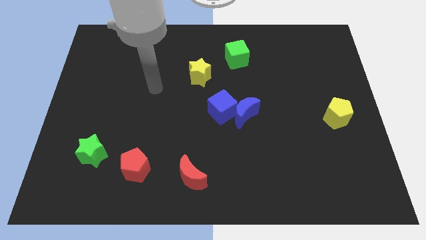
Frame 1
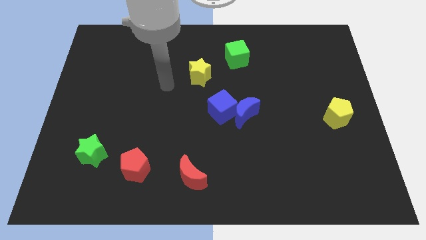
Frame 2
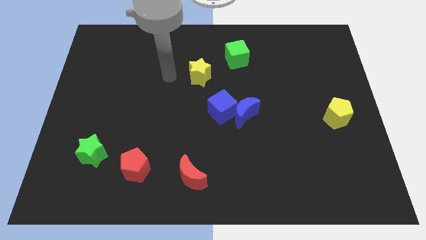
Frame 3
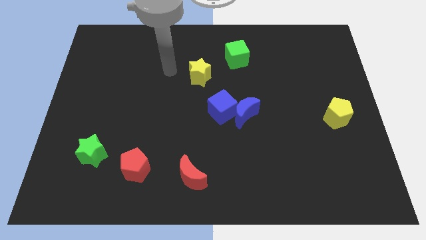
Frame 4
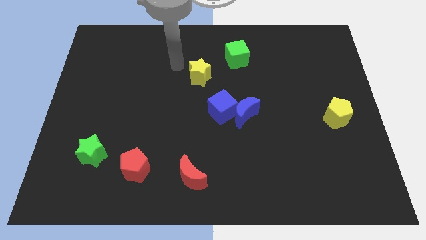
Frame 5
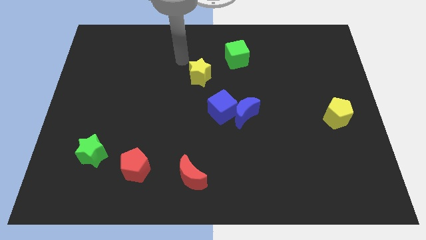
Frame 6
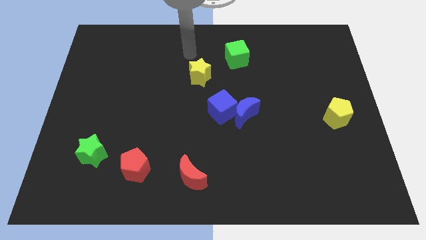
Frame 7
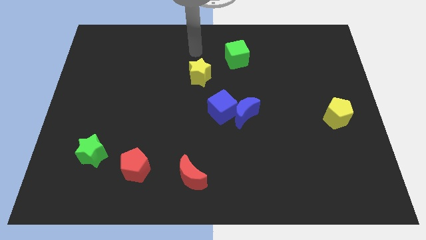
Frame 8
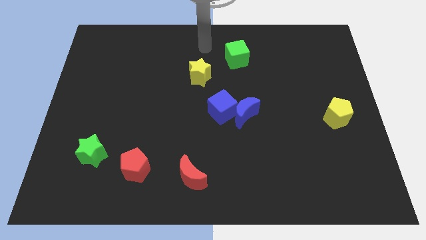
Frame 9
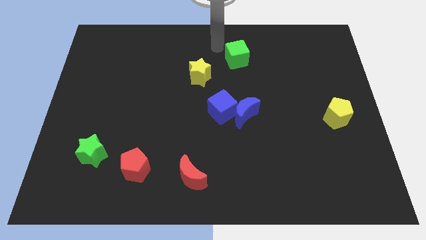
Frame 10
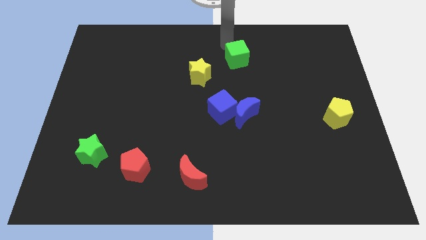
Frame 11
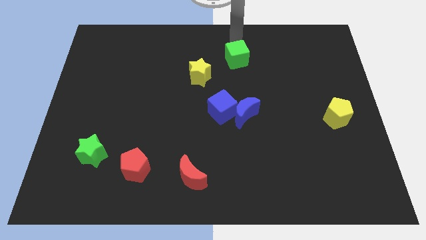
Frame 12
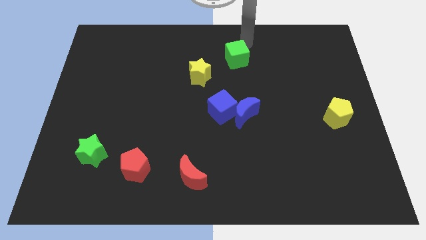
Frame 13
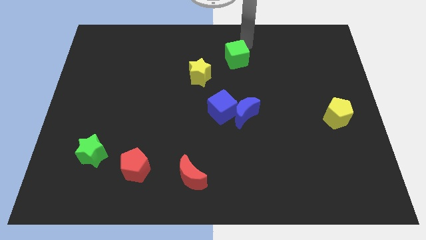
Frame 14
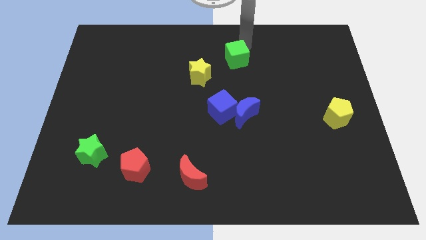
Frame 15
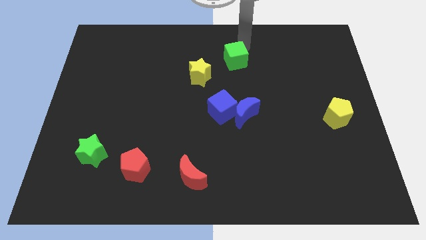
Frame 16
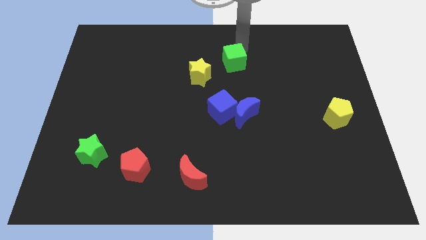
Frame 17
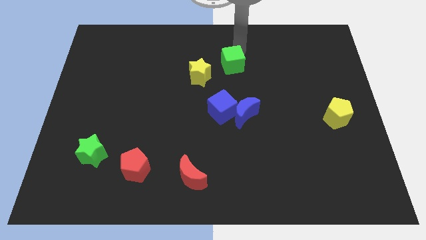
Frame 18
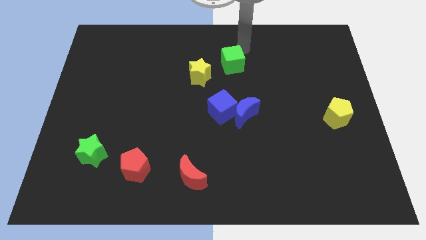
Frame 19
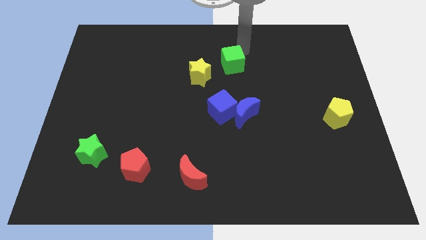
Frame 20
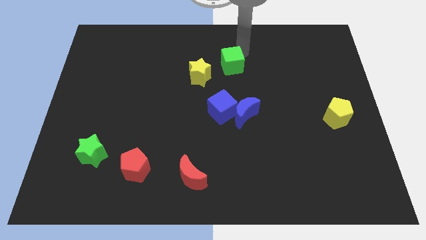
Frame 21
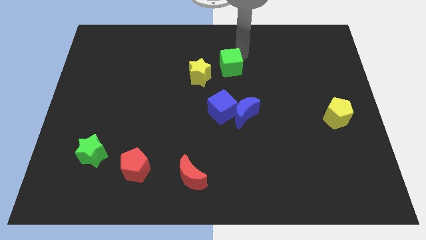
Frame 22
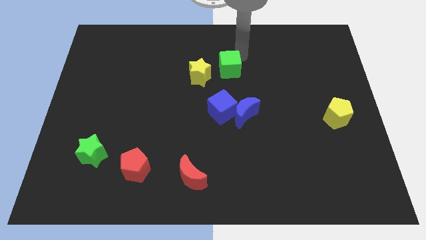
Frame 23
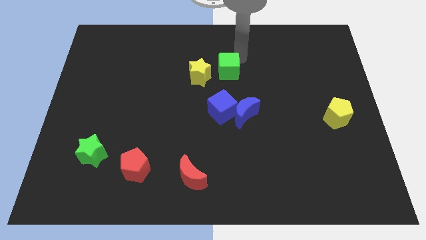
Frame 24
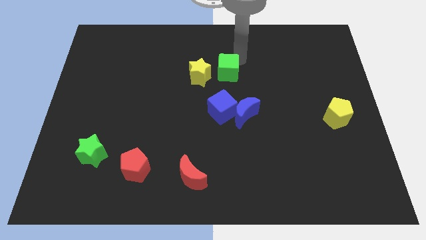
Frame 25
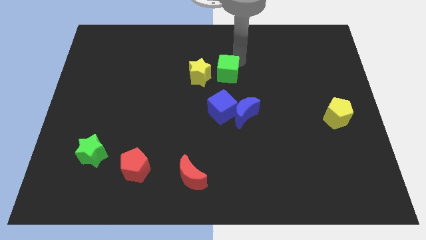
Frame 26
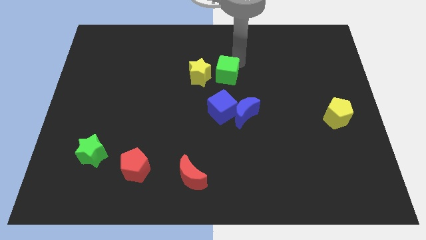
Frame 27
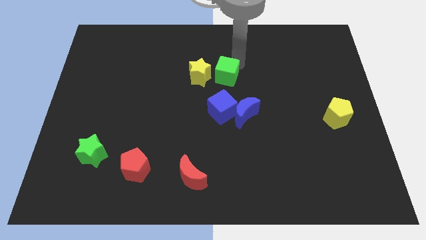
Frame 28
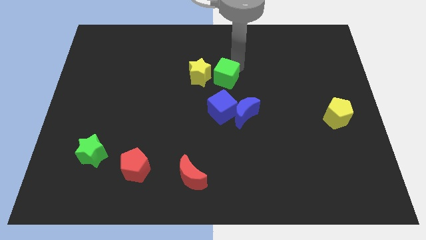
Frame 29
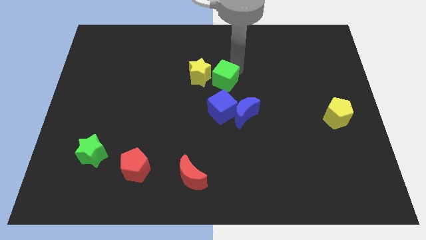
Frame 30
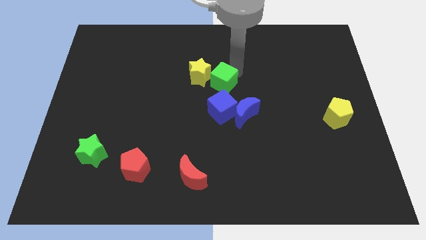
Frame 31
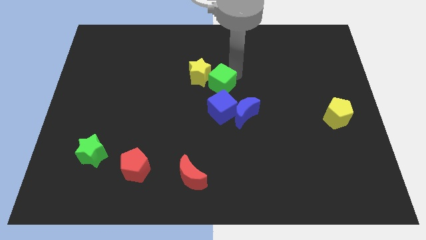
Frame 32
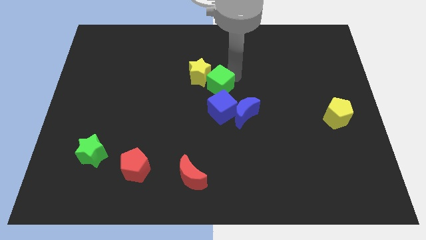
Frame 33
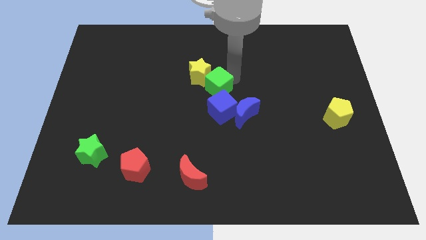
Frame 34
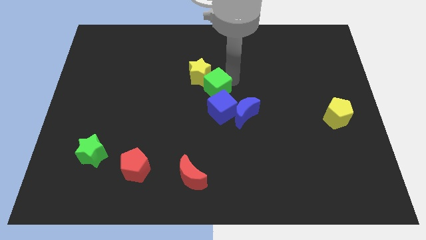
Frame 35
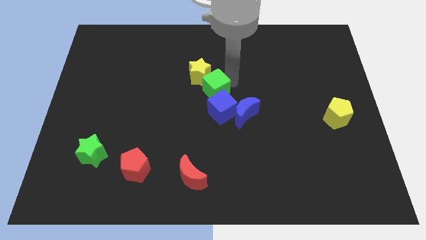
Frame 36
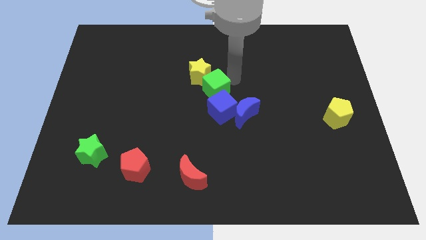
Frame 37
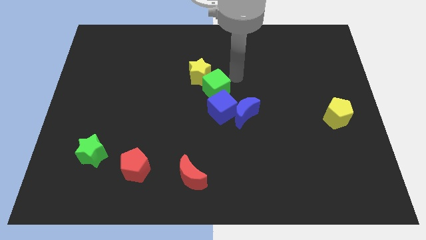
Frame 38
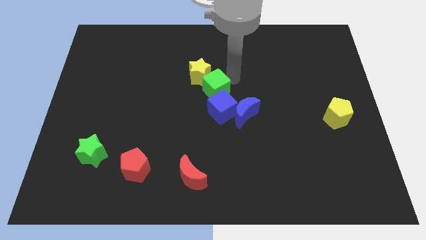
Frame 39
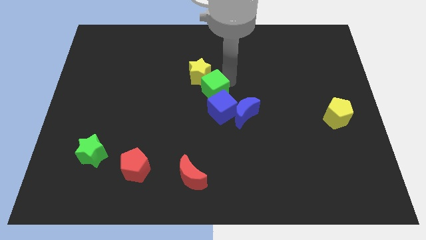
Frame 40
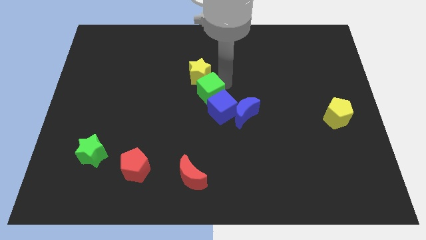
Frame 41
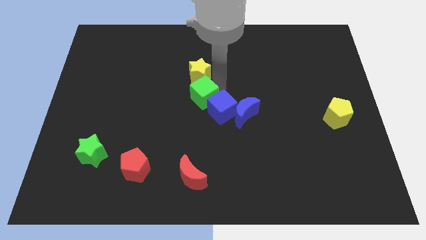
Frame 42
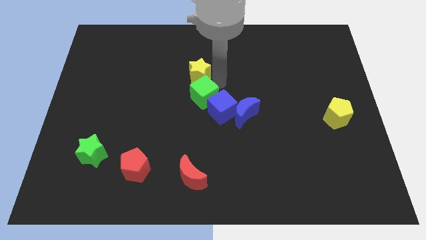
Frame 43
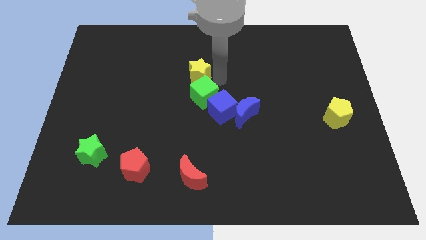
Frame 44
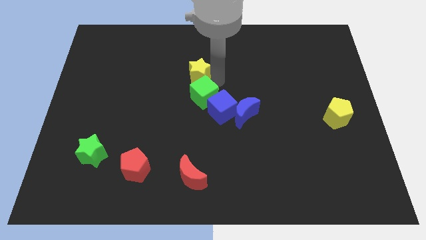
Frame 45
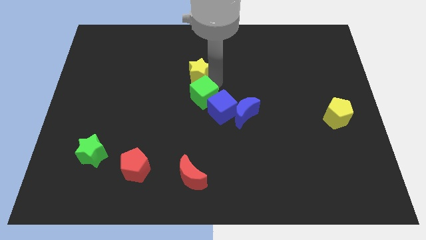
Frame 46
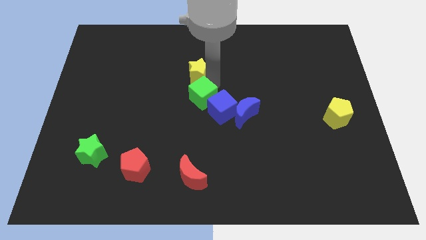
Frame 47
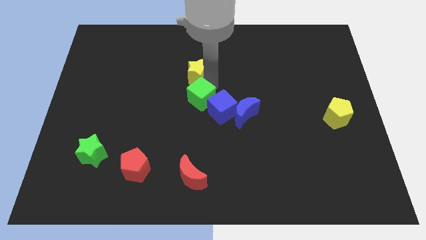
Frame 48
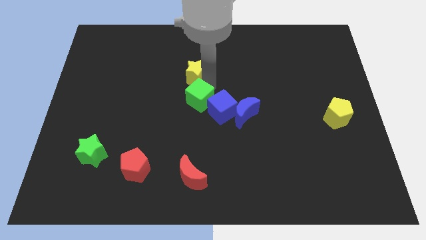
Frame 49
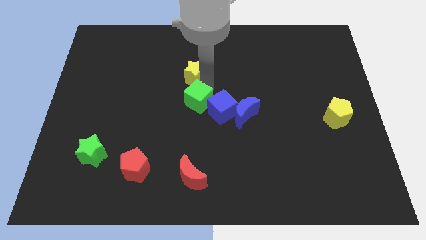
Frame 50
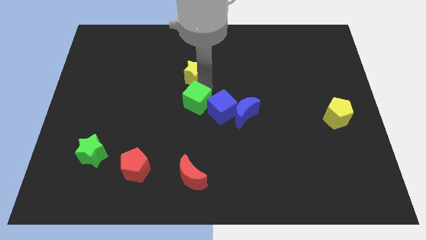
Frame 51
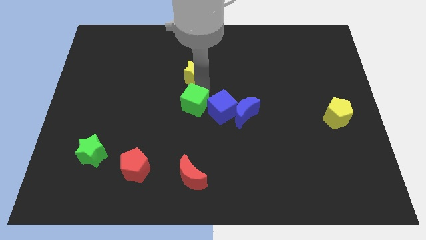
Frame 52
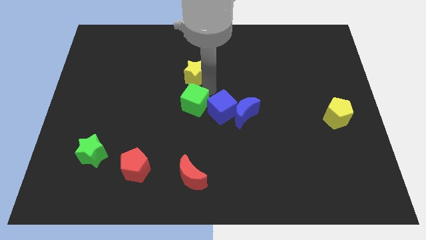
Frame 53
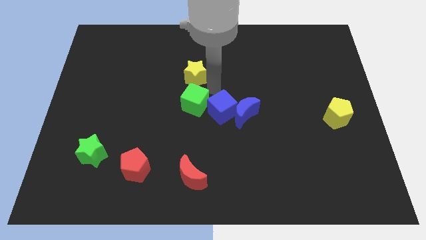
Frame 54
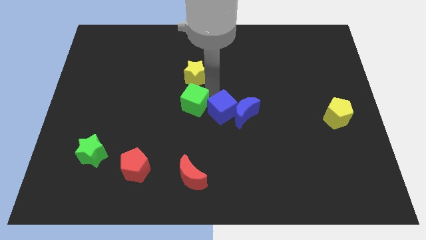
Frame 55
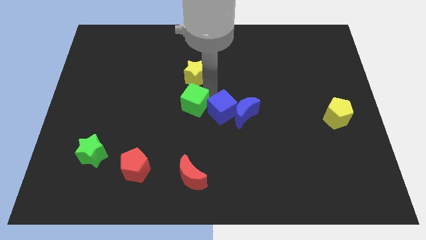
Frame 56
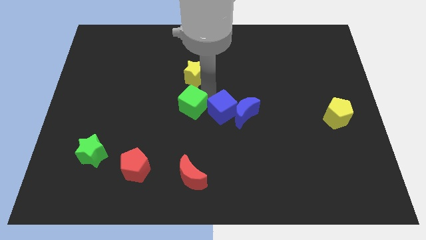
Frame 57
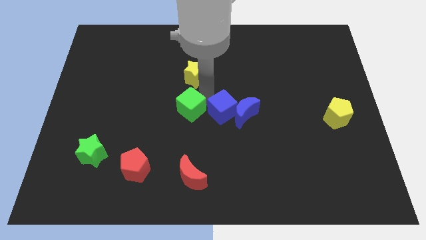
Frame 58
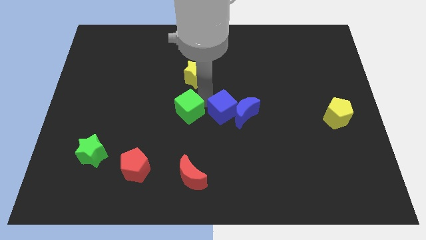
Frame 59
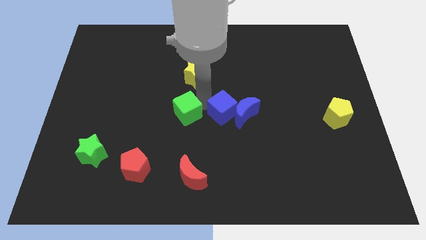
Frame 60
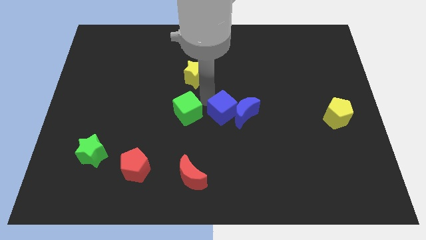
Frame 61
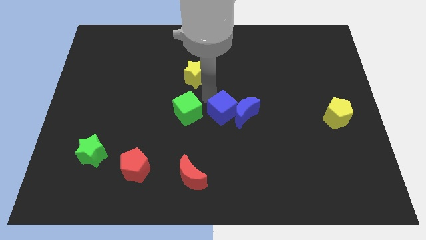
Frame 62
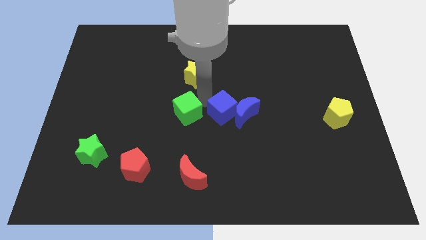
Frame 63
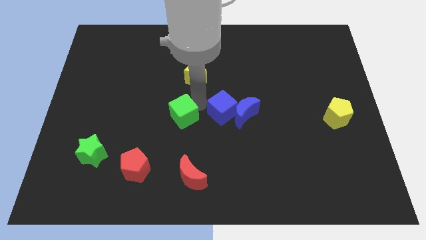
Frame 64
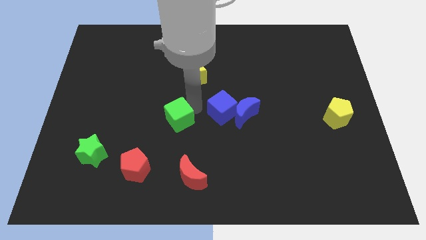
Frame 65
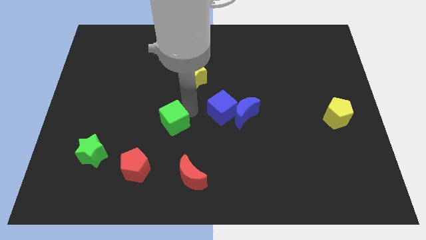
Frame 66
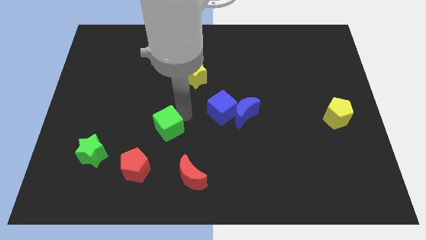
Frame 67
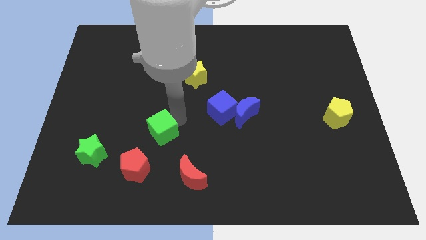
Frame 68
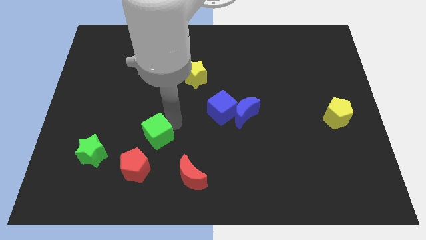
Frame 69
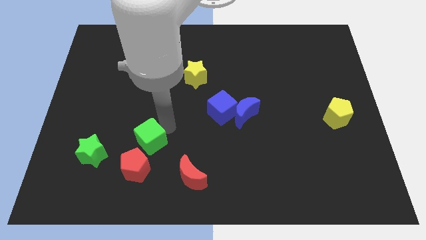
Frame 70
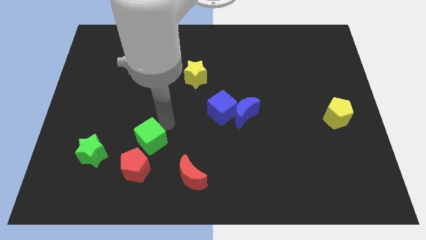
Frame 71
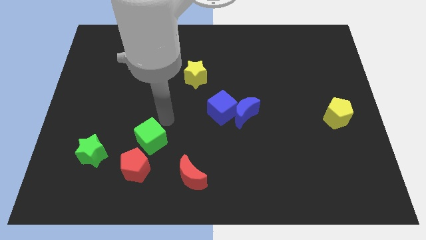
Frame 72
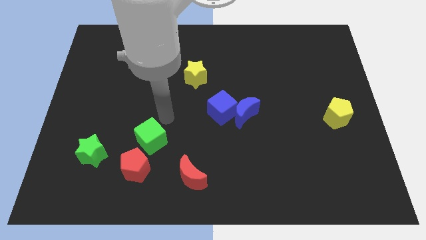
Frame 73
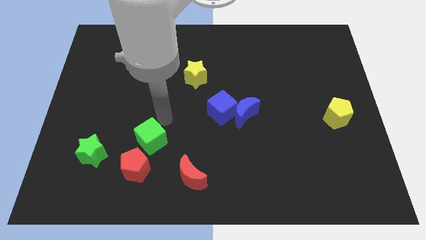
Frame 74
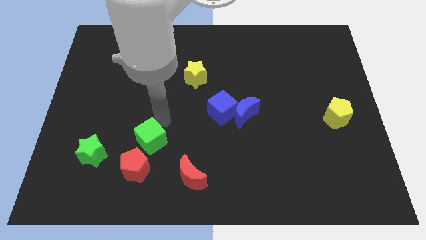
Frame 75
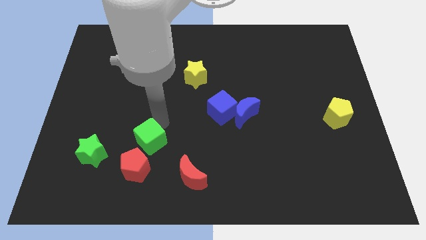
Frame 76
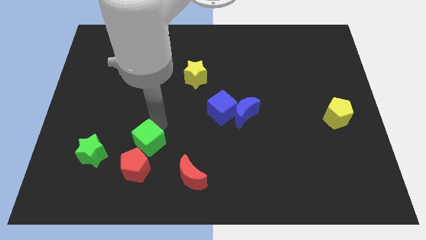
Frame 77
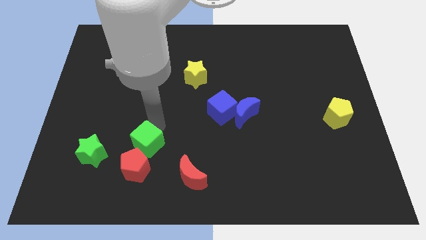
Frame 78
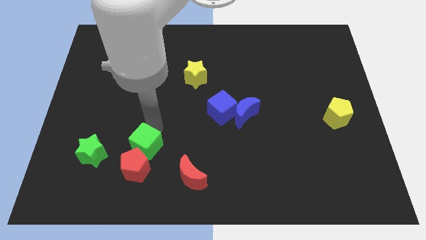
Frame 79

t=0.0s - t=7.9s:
put the green cube to the red pentagon
